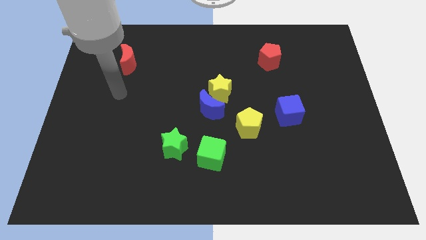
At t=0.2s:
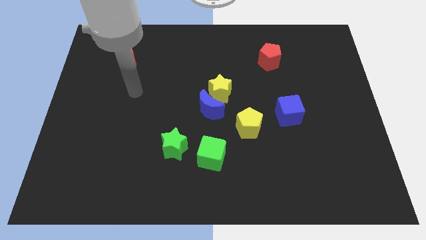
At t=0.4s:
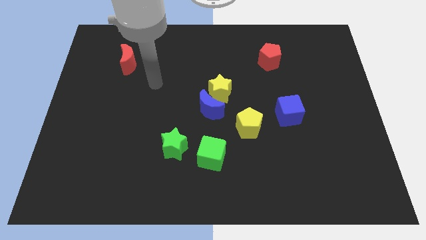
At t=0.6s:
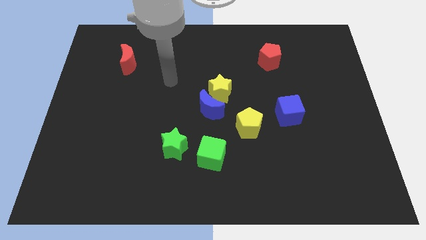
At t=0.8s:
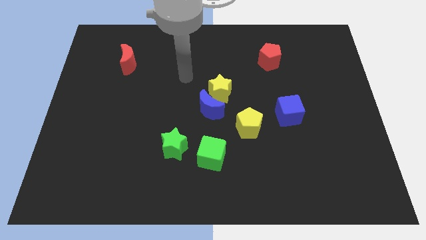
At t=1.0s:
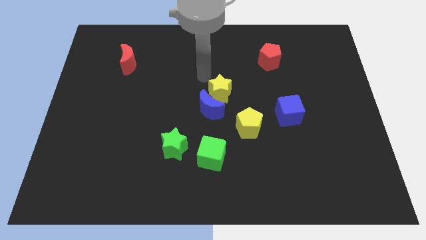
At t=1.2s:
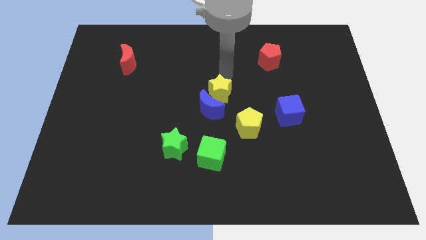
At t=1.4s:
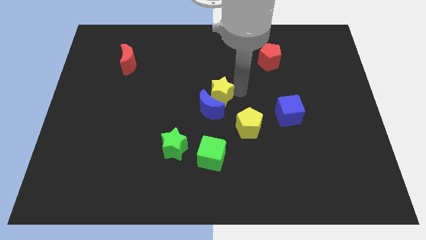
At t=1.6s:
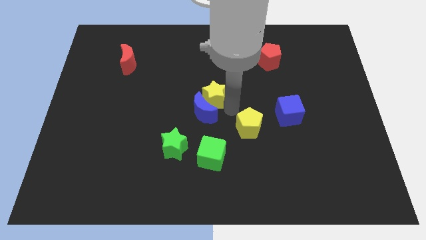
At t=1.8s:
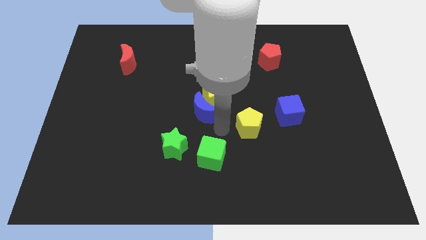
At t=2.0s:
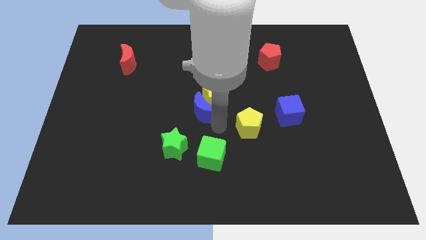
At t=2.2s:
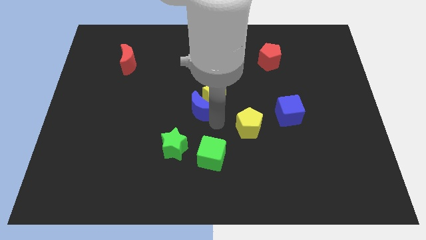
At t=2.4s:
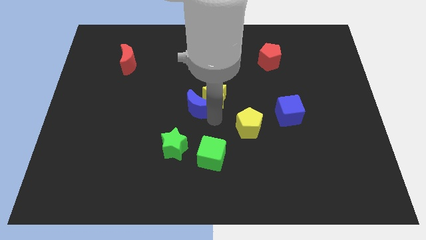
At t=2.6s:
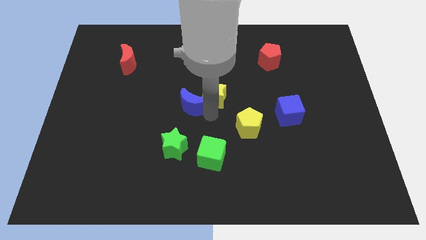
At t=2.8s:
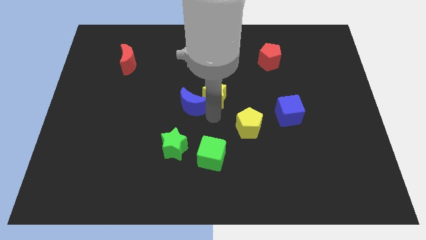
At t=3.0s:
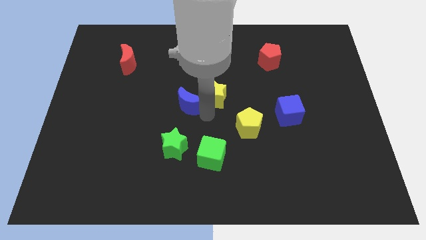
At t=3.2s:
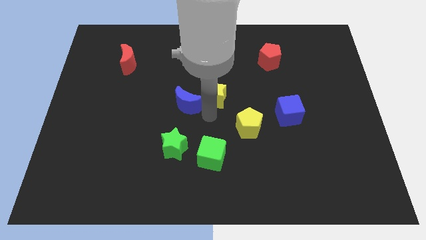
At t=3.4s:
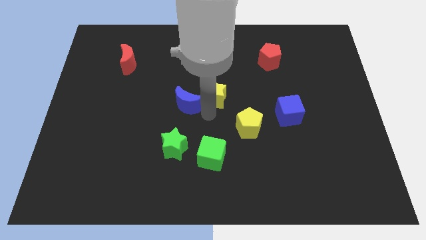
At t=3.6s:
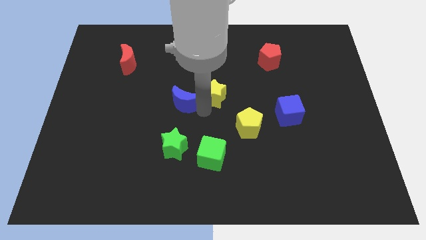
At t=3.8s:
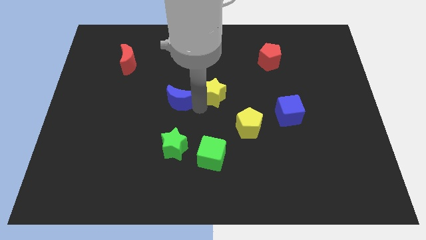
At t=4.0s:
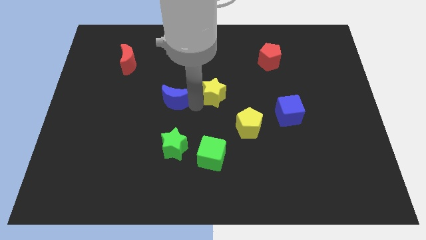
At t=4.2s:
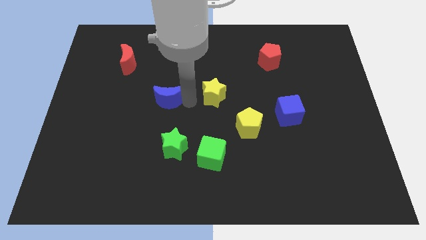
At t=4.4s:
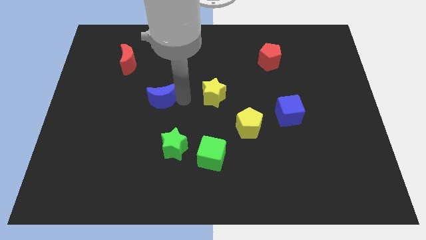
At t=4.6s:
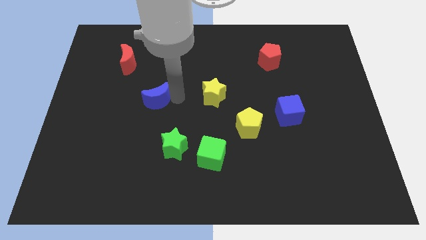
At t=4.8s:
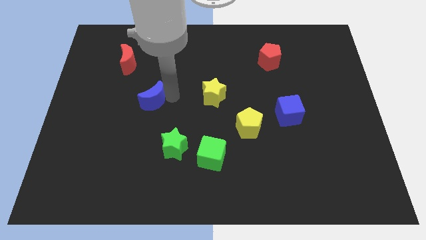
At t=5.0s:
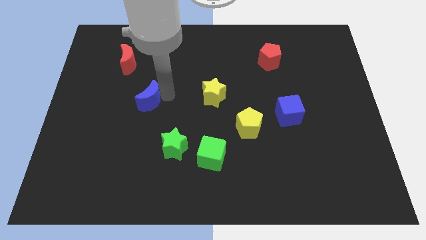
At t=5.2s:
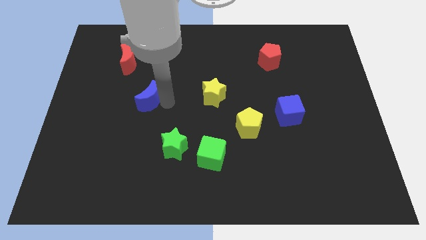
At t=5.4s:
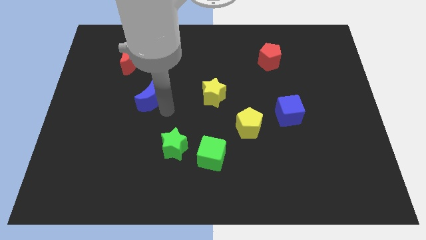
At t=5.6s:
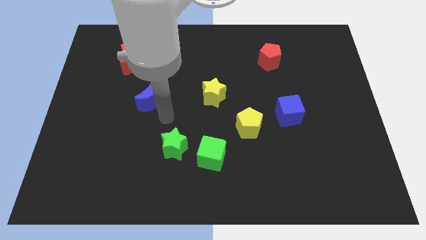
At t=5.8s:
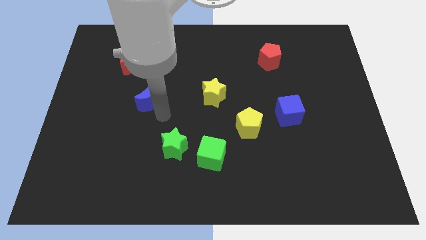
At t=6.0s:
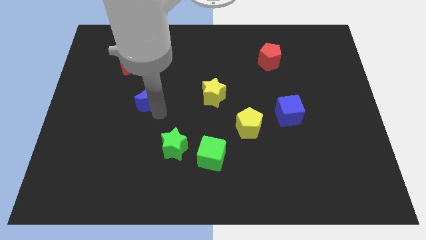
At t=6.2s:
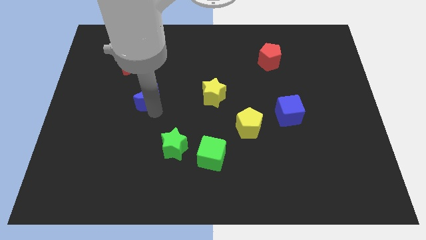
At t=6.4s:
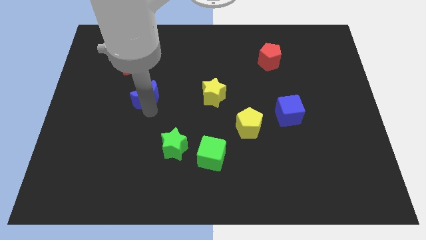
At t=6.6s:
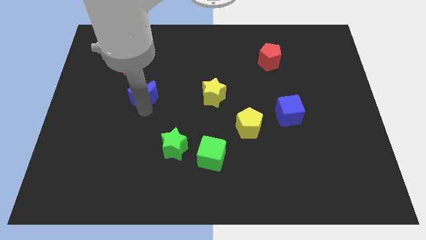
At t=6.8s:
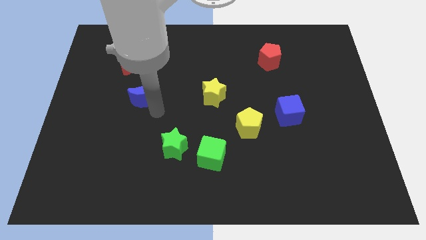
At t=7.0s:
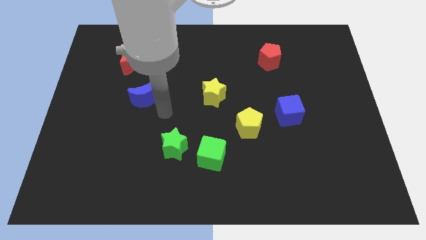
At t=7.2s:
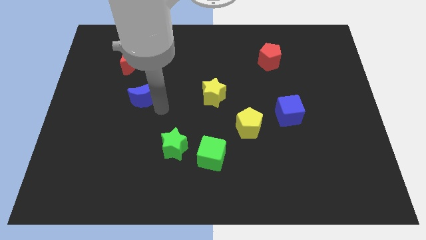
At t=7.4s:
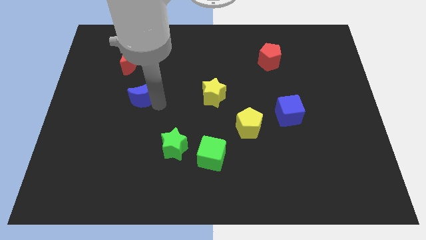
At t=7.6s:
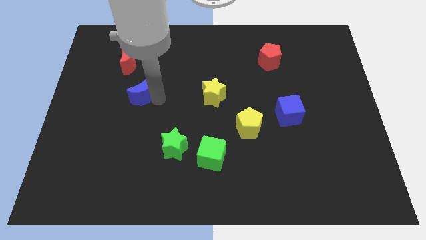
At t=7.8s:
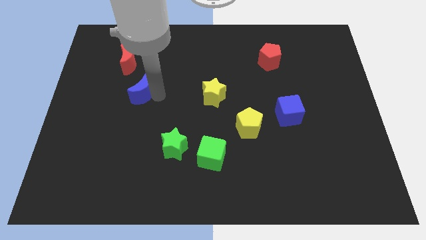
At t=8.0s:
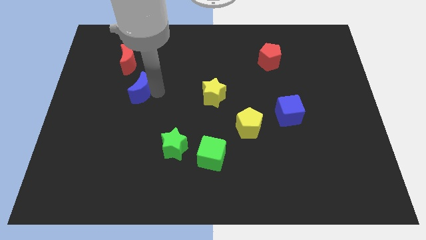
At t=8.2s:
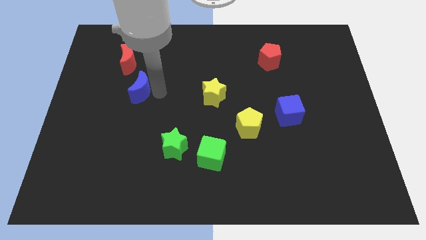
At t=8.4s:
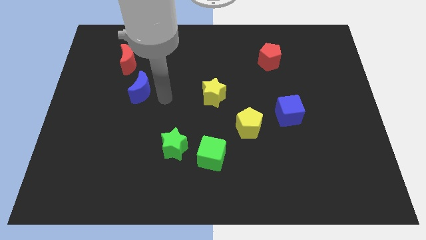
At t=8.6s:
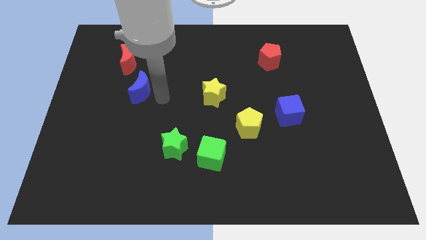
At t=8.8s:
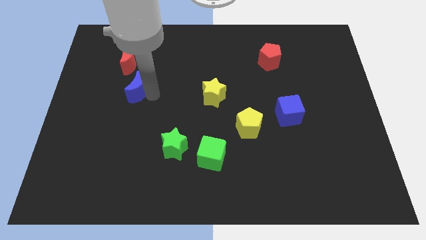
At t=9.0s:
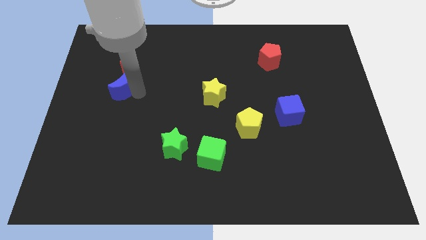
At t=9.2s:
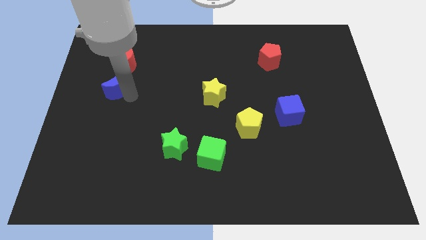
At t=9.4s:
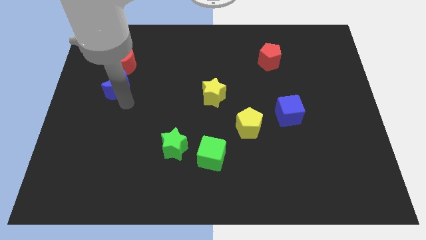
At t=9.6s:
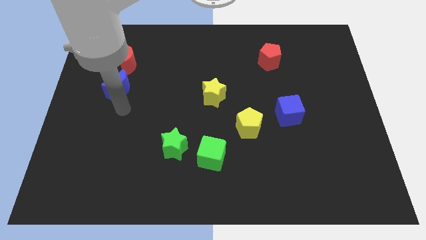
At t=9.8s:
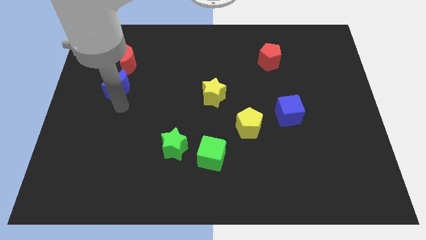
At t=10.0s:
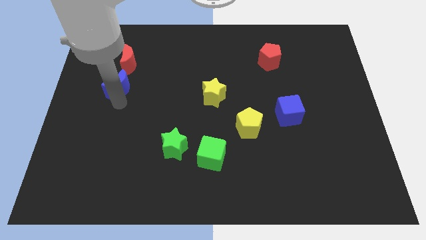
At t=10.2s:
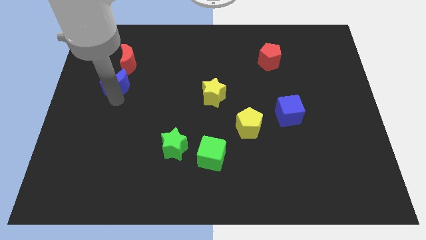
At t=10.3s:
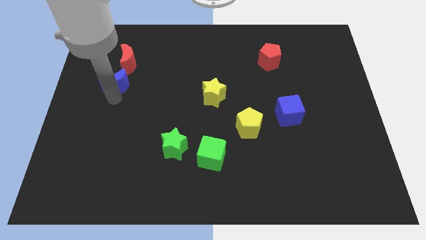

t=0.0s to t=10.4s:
slide the blue moon to the bottom left side of the red moon

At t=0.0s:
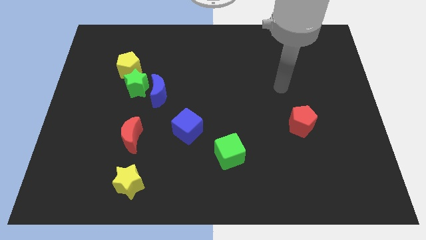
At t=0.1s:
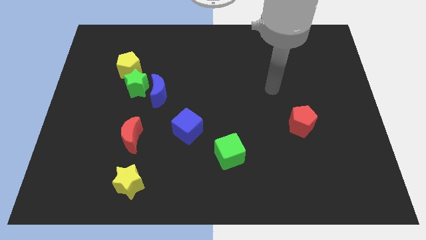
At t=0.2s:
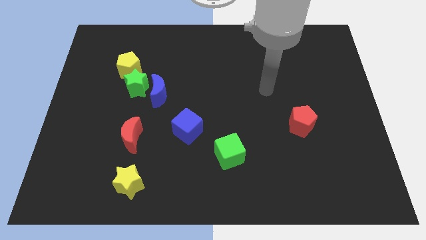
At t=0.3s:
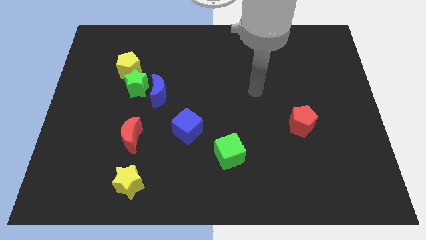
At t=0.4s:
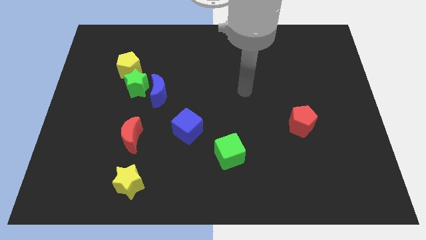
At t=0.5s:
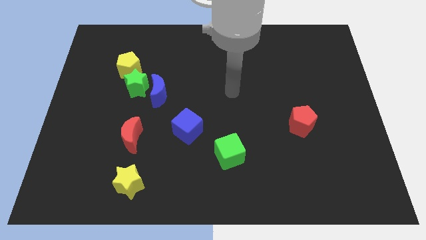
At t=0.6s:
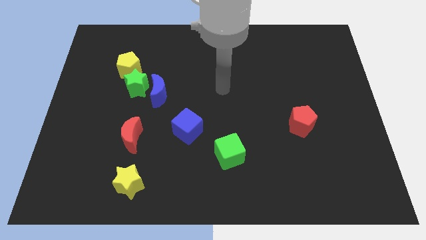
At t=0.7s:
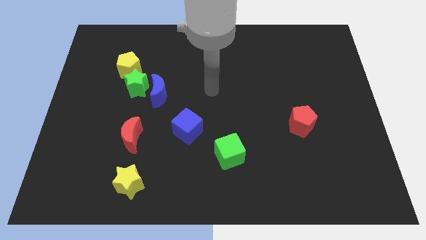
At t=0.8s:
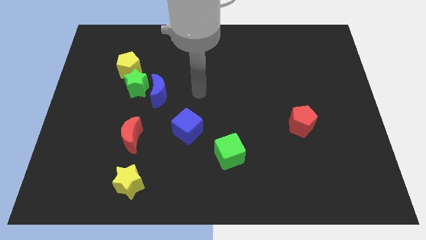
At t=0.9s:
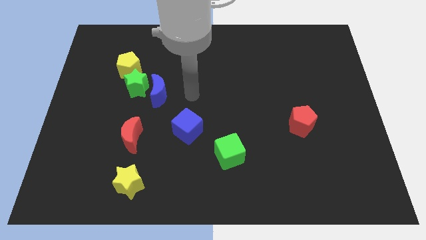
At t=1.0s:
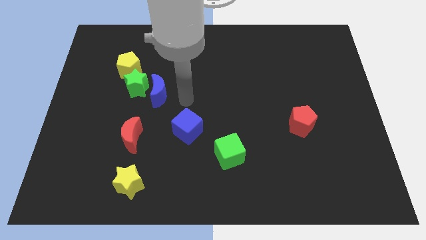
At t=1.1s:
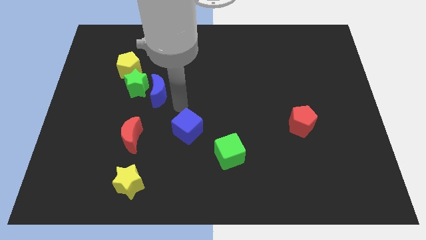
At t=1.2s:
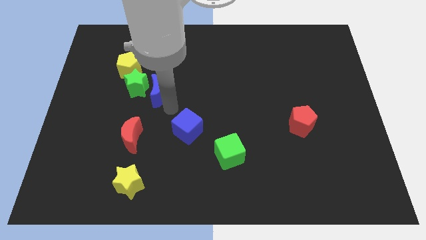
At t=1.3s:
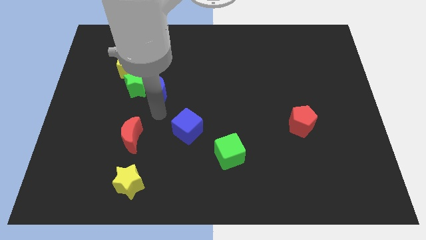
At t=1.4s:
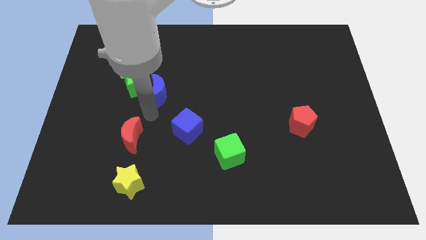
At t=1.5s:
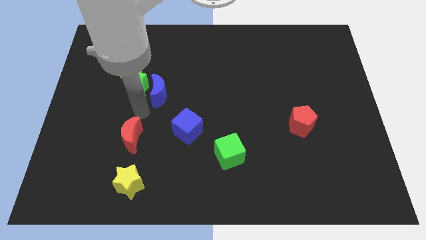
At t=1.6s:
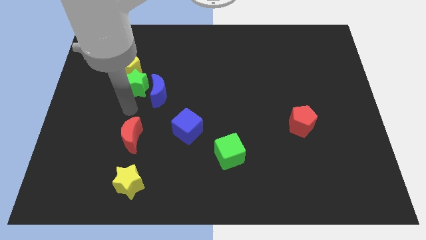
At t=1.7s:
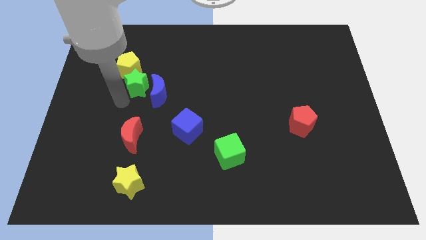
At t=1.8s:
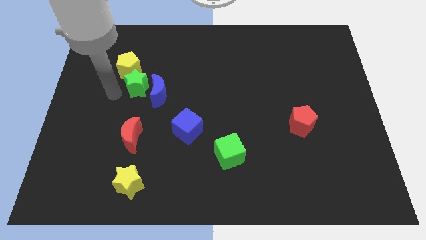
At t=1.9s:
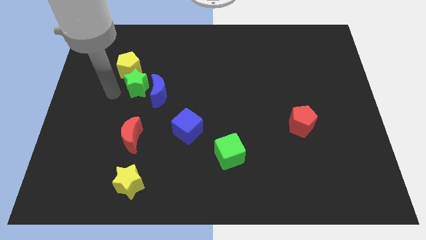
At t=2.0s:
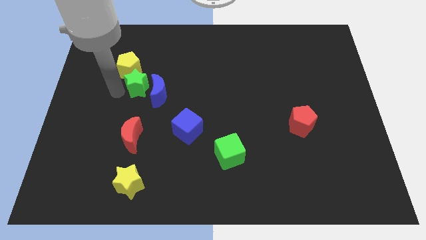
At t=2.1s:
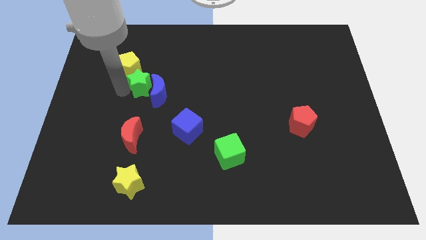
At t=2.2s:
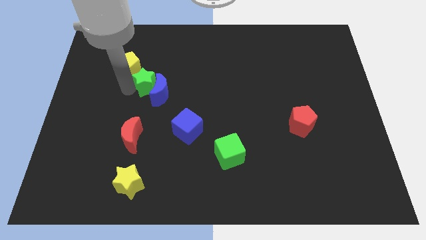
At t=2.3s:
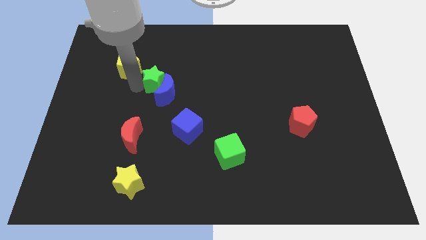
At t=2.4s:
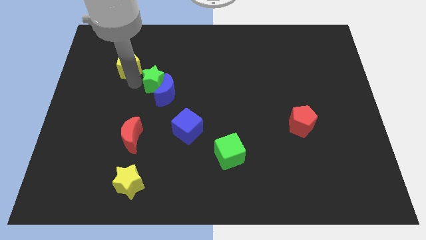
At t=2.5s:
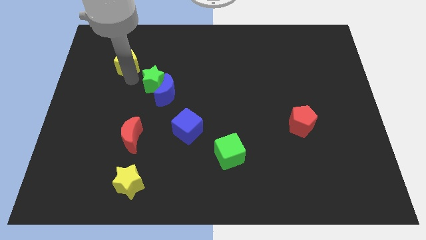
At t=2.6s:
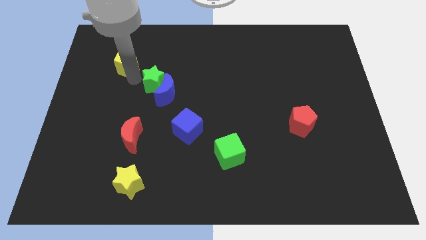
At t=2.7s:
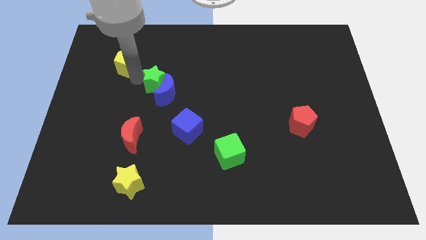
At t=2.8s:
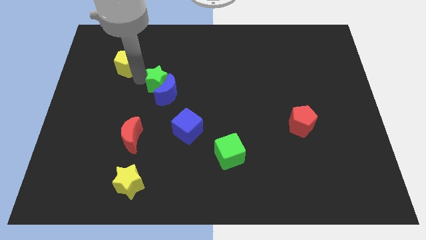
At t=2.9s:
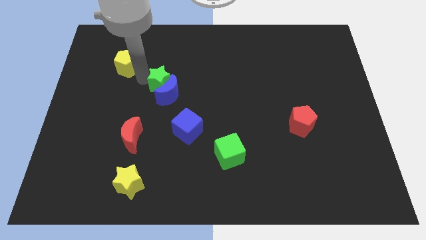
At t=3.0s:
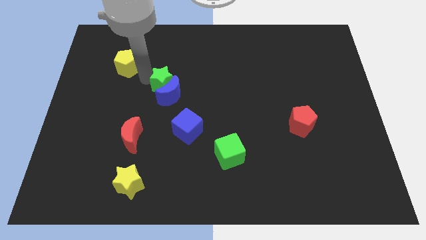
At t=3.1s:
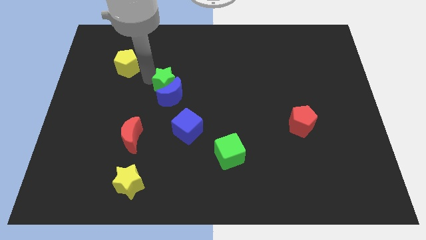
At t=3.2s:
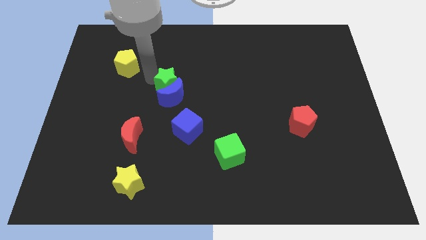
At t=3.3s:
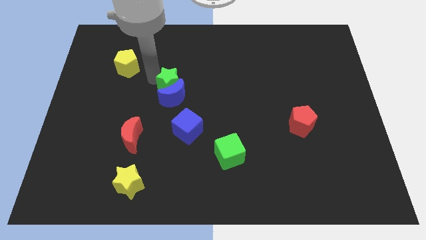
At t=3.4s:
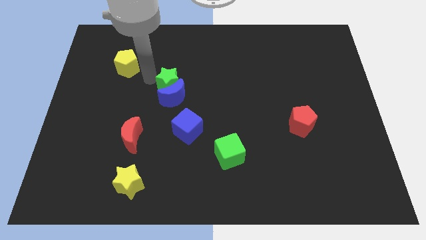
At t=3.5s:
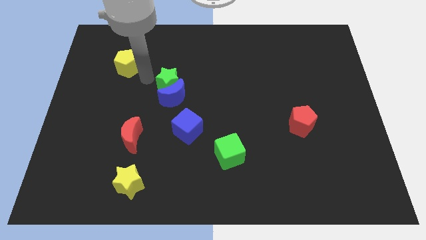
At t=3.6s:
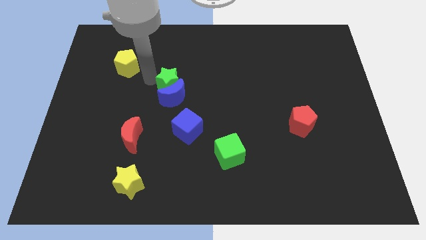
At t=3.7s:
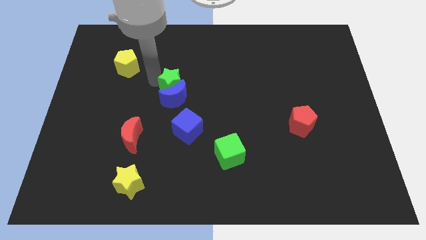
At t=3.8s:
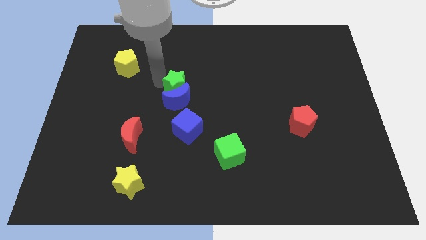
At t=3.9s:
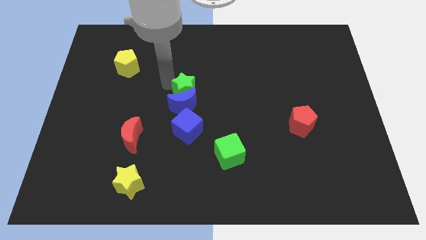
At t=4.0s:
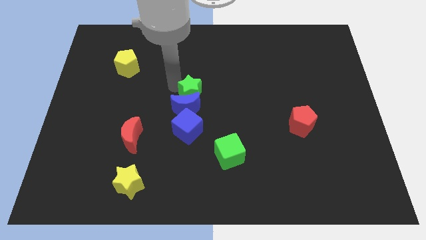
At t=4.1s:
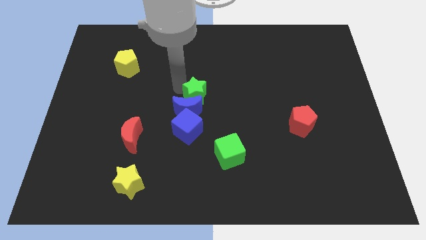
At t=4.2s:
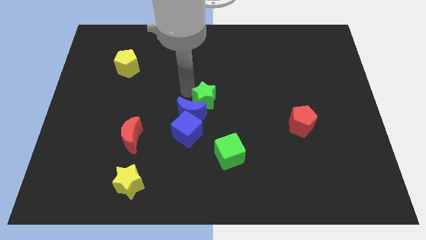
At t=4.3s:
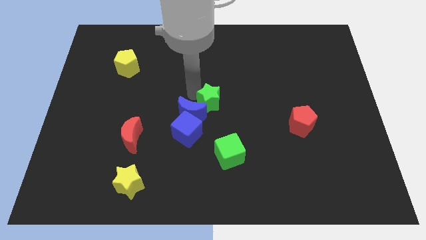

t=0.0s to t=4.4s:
slide the green star to the top side of the green cube
